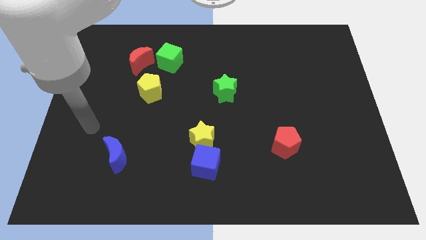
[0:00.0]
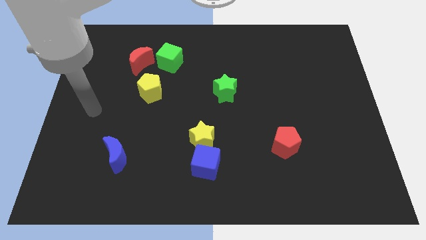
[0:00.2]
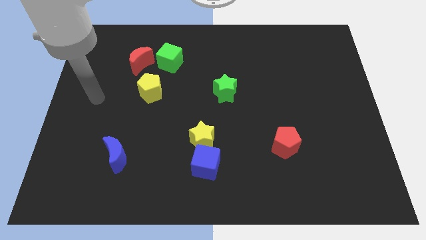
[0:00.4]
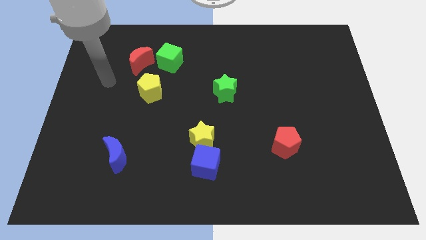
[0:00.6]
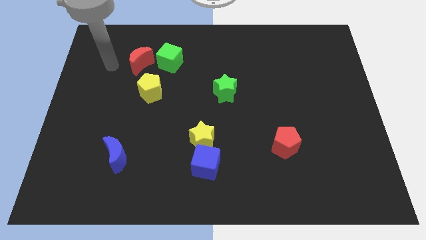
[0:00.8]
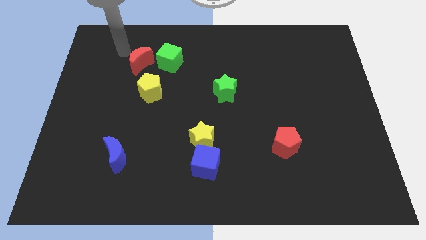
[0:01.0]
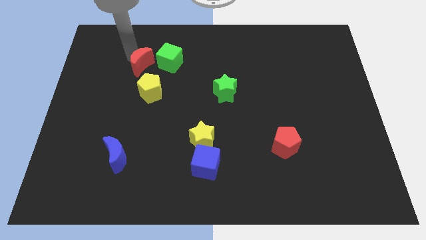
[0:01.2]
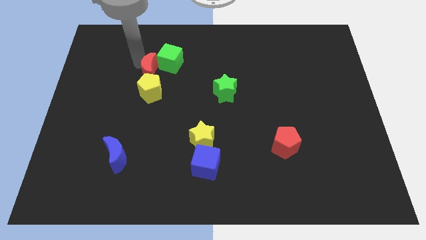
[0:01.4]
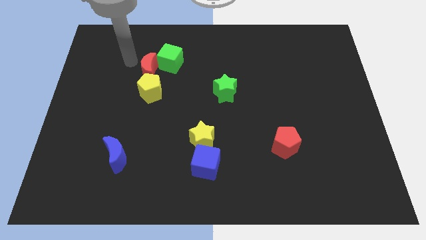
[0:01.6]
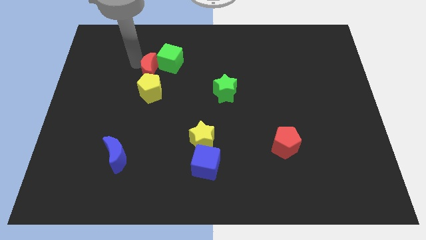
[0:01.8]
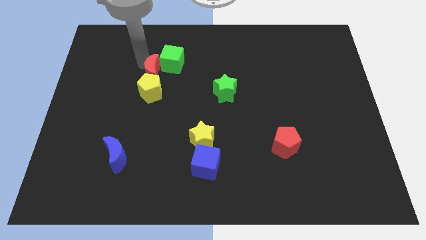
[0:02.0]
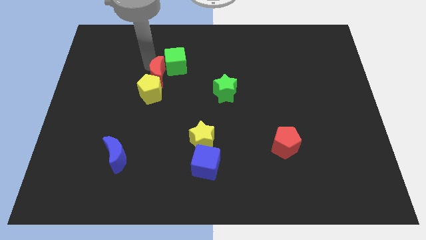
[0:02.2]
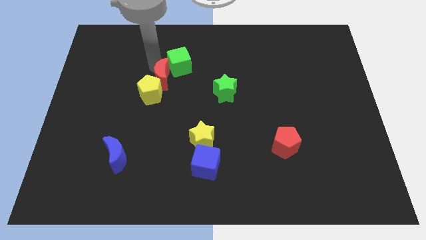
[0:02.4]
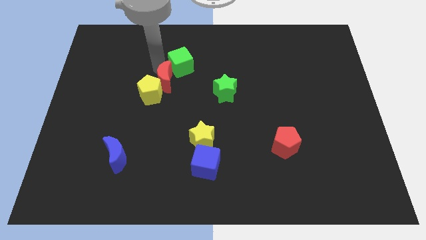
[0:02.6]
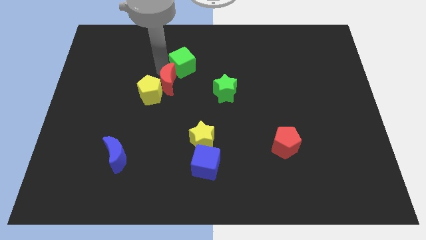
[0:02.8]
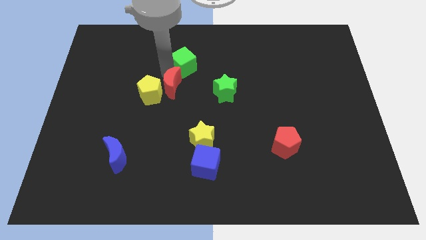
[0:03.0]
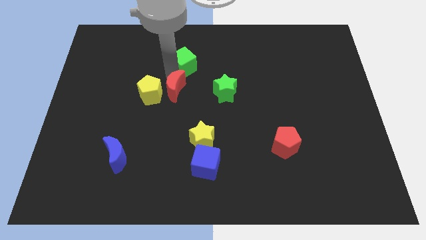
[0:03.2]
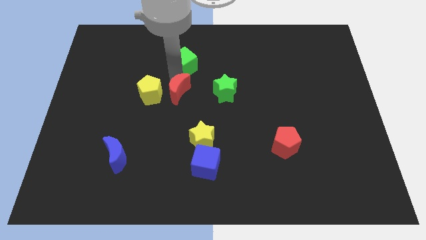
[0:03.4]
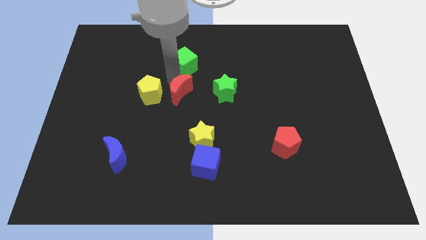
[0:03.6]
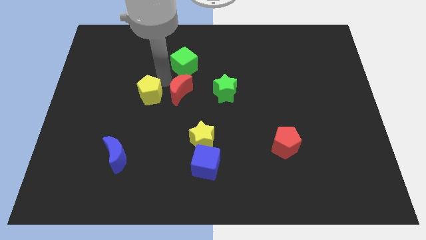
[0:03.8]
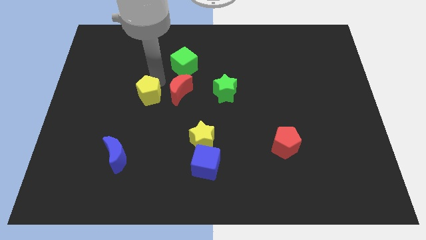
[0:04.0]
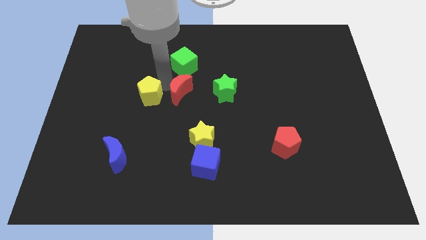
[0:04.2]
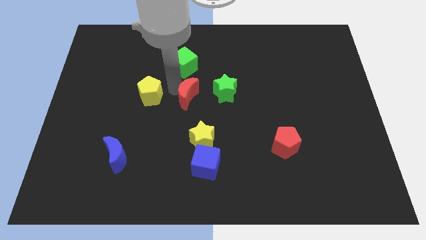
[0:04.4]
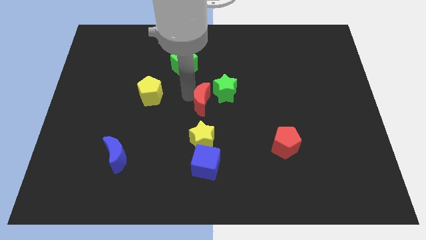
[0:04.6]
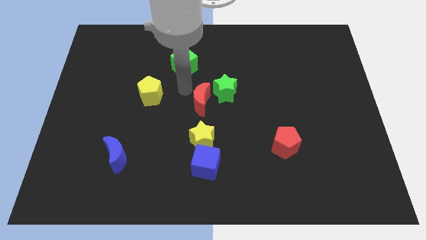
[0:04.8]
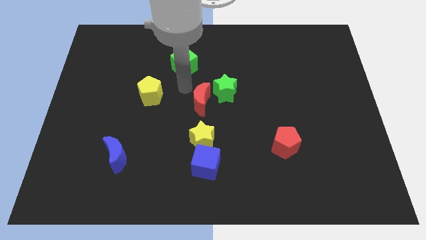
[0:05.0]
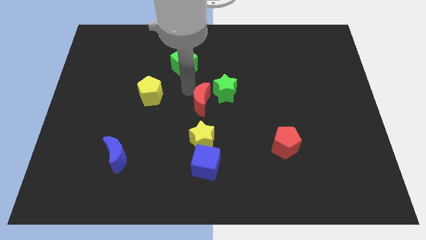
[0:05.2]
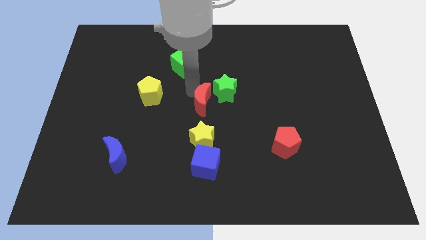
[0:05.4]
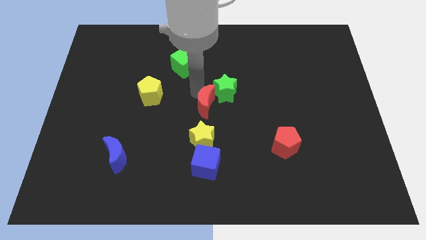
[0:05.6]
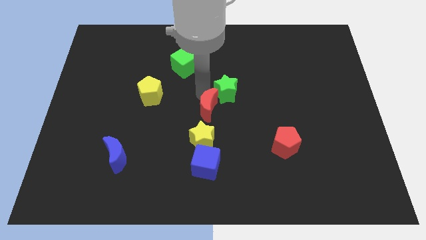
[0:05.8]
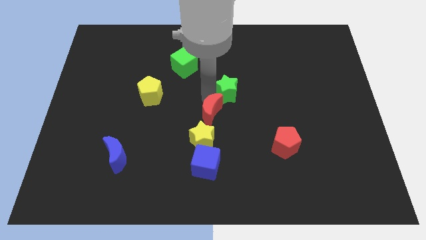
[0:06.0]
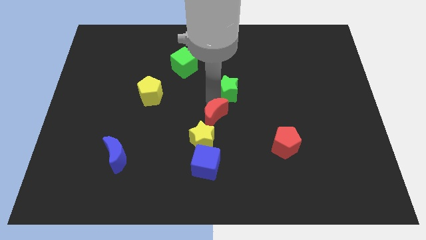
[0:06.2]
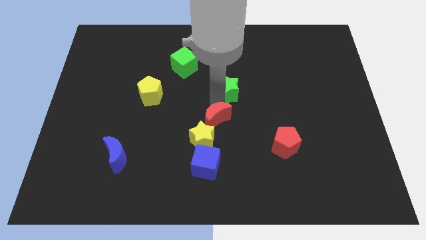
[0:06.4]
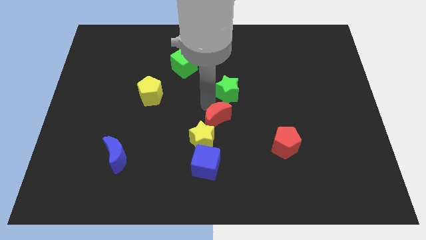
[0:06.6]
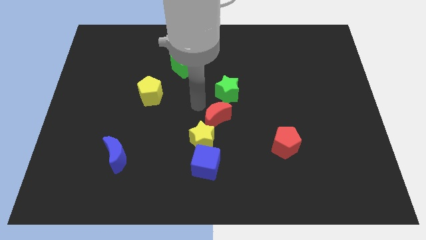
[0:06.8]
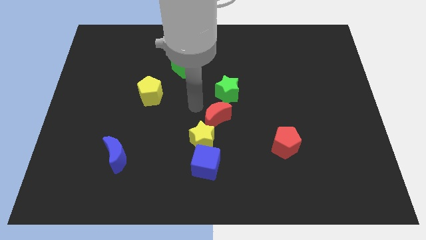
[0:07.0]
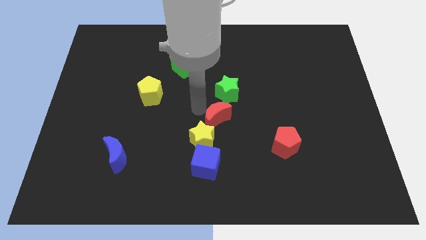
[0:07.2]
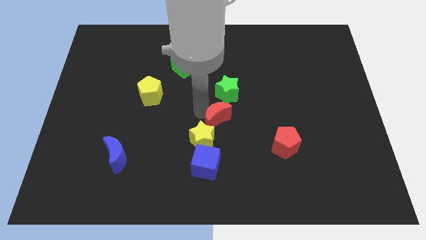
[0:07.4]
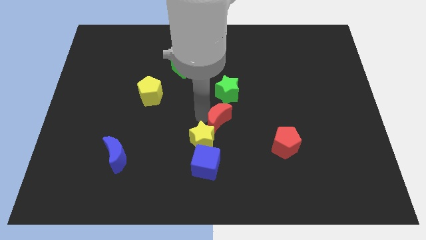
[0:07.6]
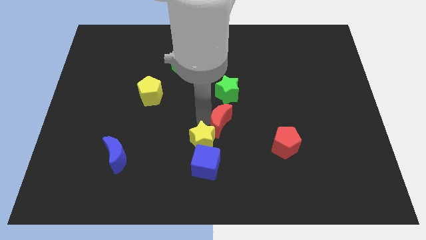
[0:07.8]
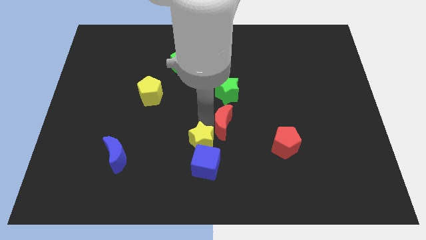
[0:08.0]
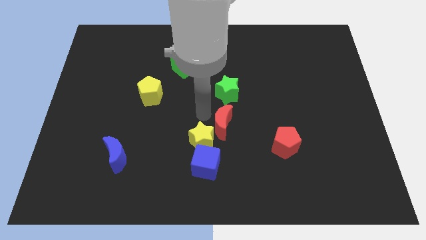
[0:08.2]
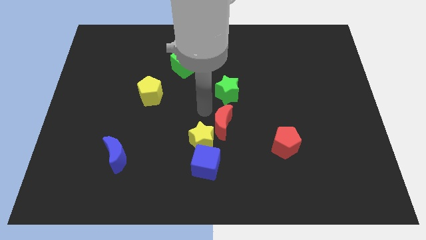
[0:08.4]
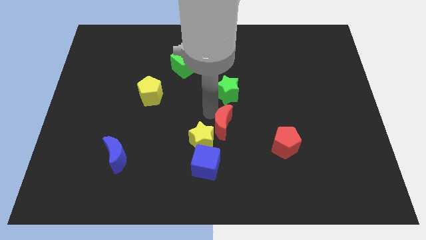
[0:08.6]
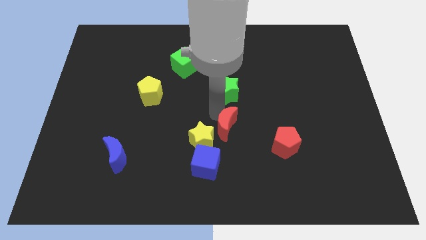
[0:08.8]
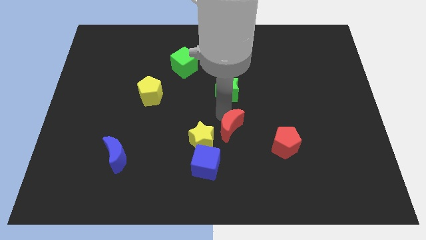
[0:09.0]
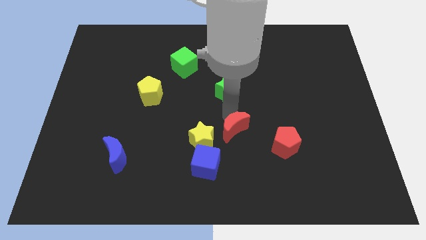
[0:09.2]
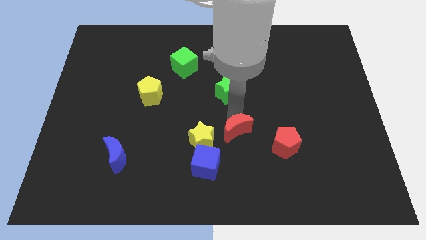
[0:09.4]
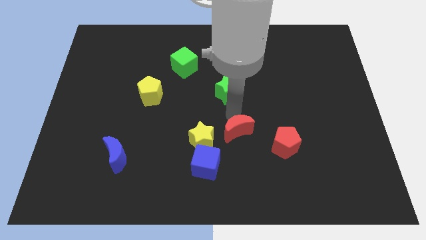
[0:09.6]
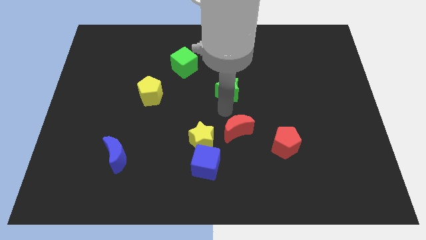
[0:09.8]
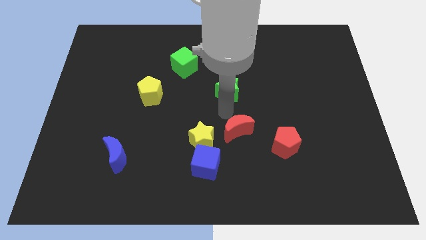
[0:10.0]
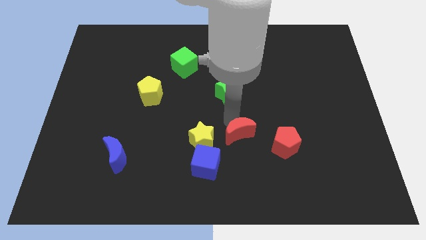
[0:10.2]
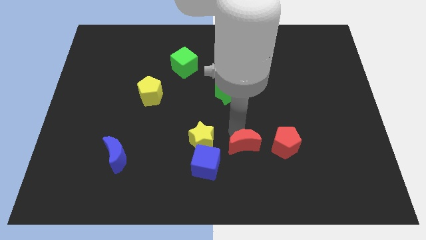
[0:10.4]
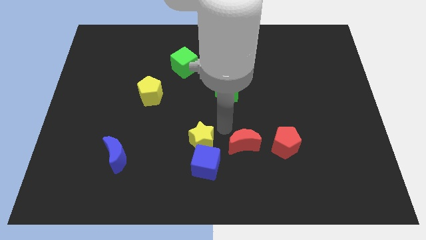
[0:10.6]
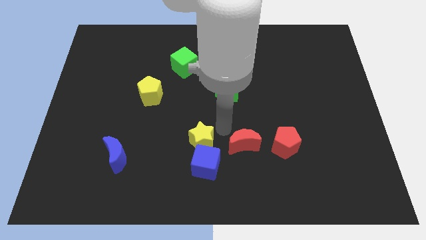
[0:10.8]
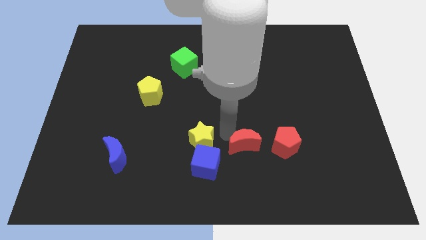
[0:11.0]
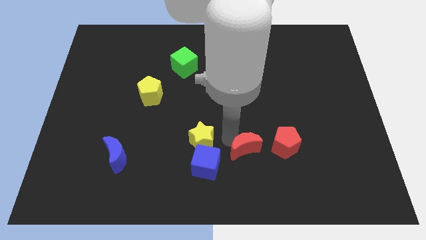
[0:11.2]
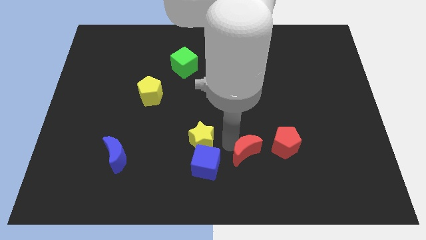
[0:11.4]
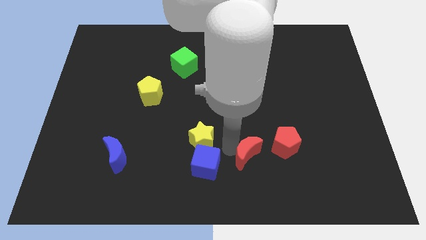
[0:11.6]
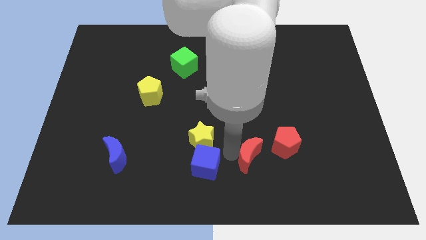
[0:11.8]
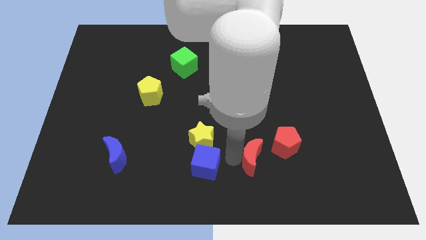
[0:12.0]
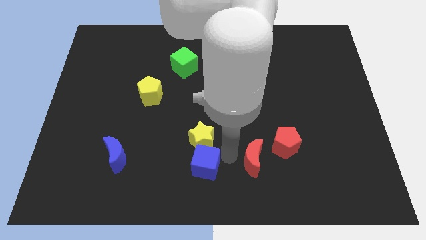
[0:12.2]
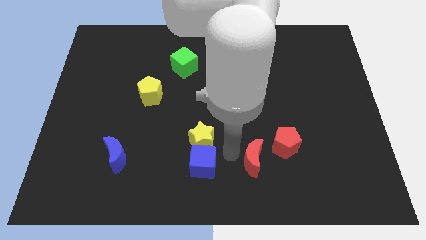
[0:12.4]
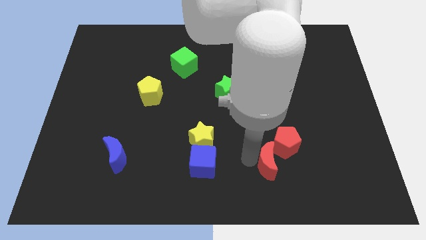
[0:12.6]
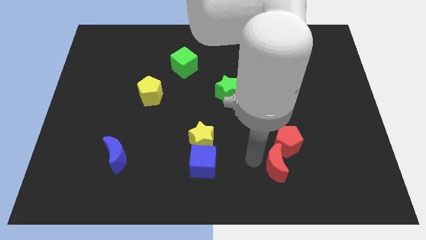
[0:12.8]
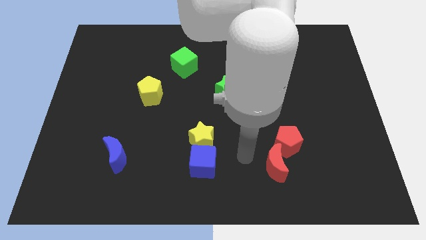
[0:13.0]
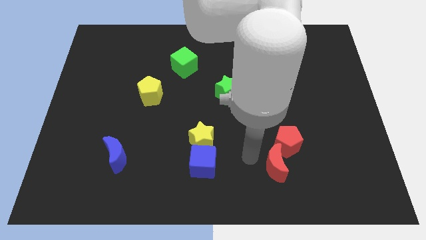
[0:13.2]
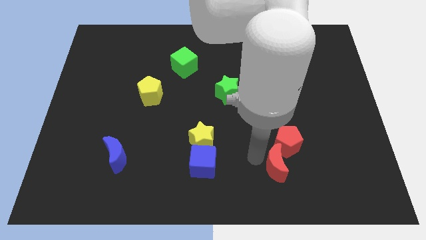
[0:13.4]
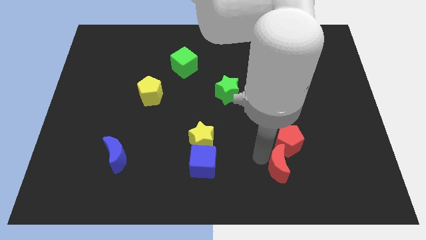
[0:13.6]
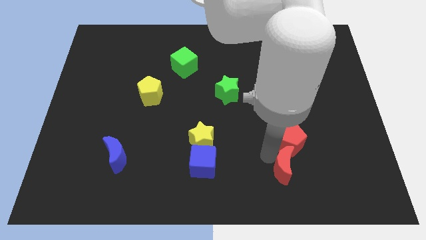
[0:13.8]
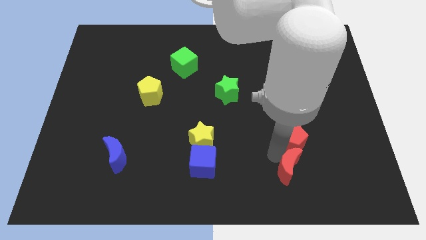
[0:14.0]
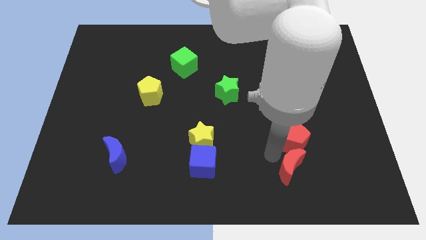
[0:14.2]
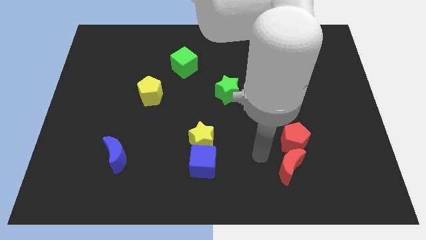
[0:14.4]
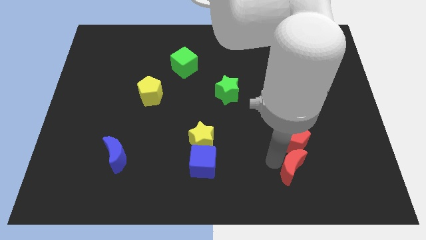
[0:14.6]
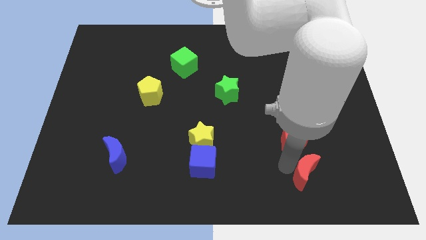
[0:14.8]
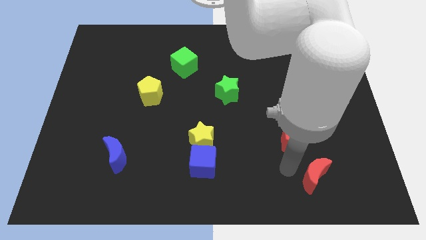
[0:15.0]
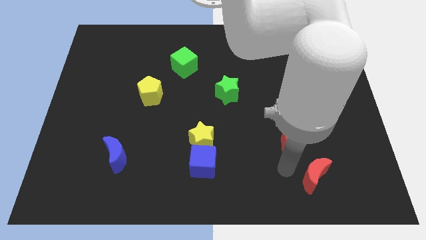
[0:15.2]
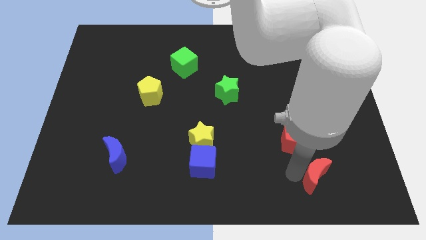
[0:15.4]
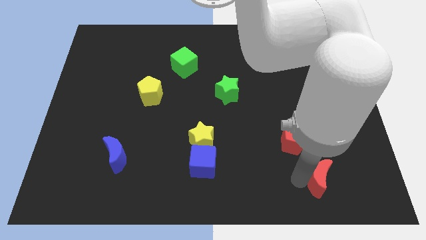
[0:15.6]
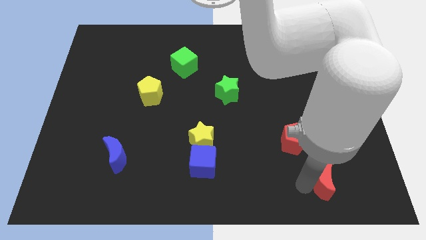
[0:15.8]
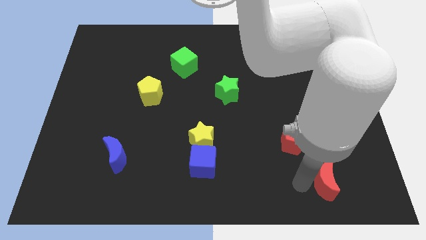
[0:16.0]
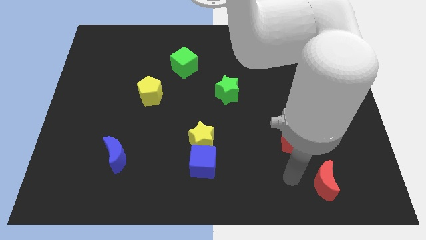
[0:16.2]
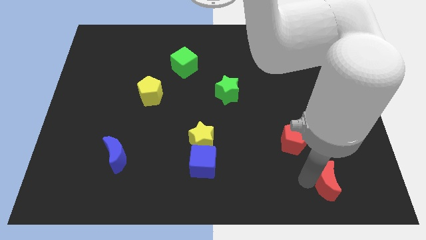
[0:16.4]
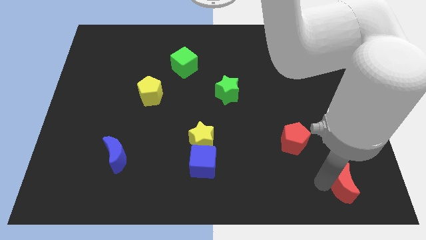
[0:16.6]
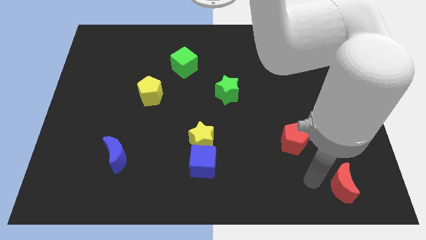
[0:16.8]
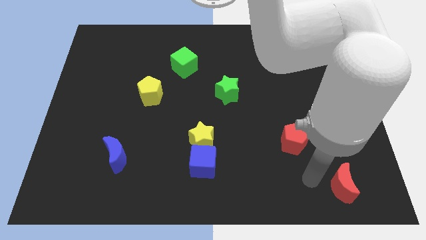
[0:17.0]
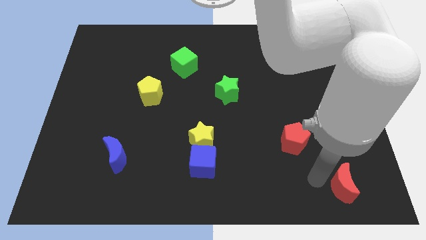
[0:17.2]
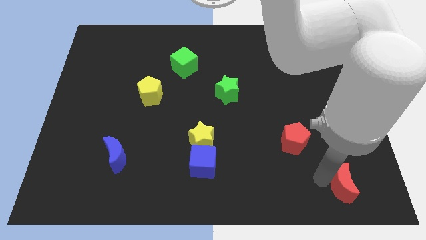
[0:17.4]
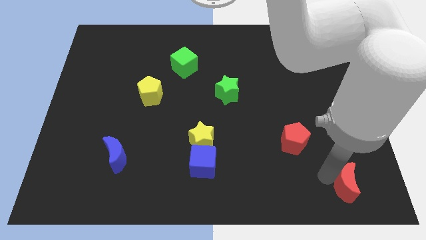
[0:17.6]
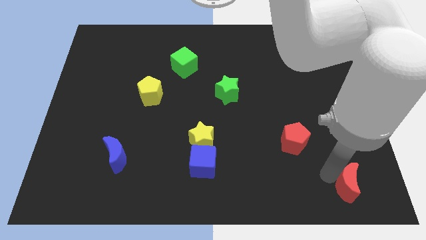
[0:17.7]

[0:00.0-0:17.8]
move the red moon to the lower right corner
